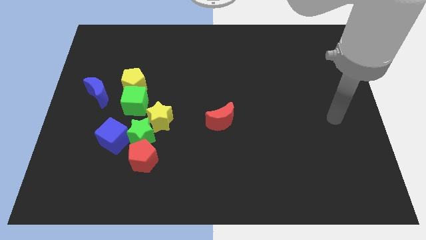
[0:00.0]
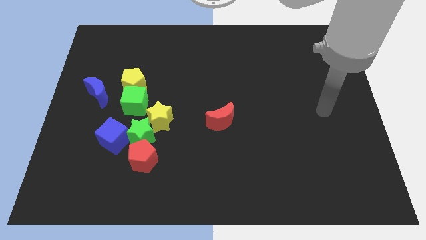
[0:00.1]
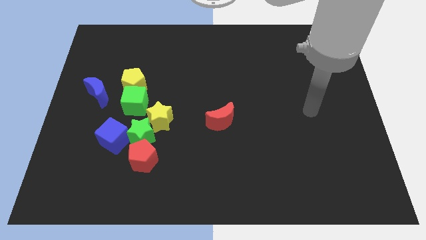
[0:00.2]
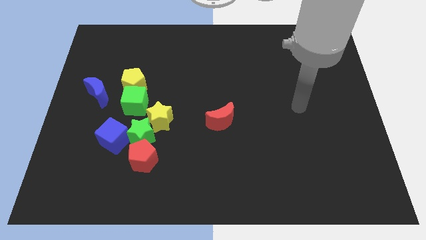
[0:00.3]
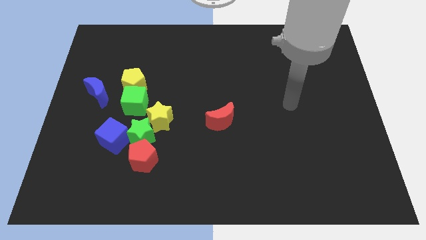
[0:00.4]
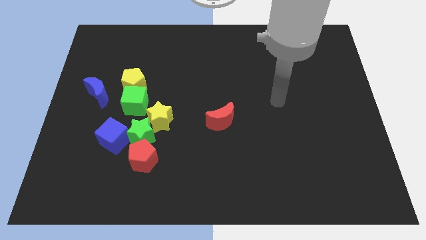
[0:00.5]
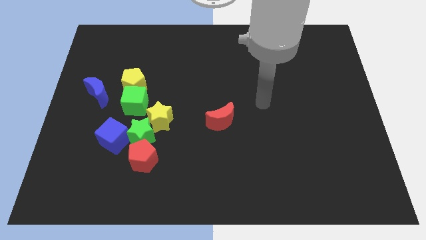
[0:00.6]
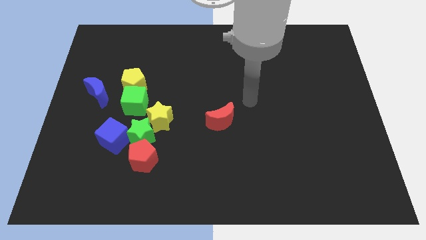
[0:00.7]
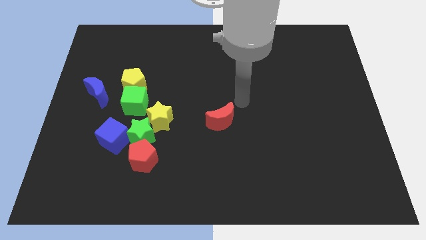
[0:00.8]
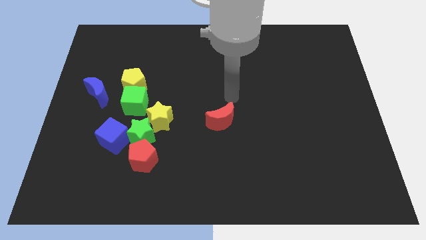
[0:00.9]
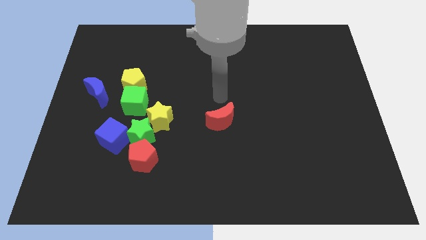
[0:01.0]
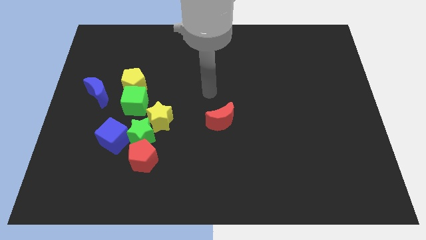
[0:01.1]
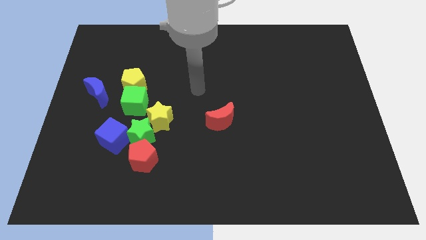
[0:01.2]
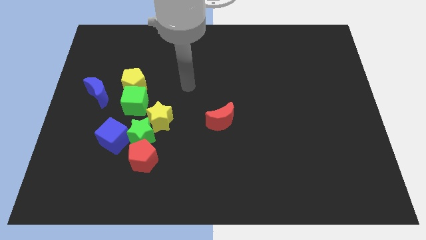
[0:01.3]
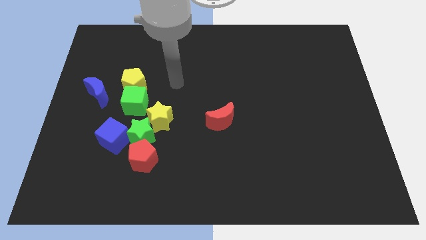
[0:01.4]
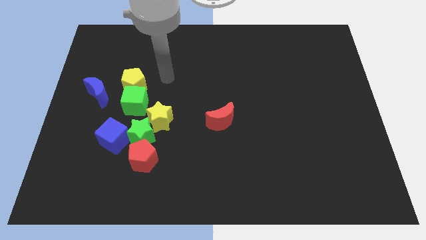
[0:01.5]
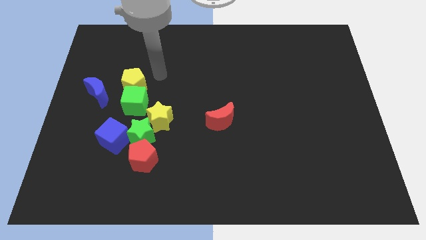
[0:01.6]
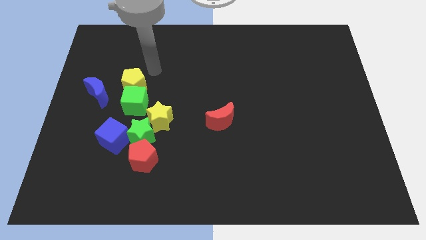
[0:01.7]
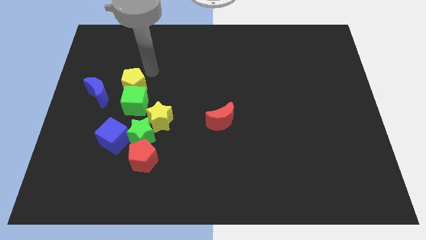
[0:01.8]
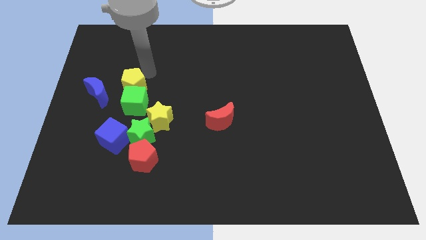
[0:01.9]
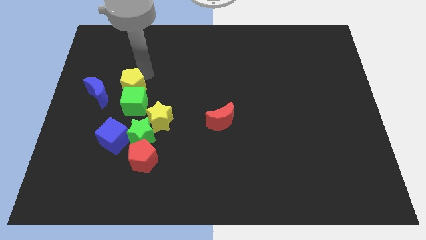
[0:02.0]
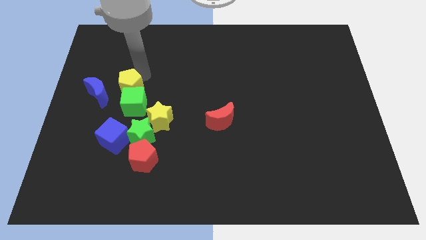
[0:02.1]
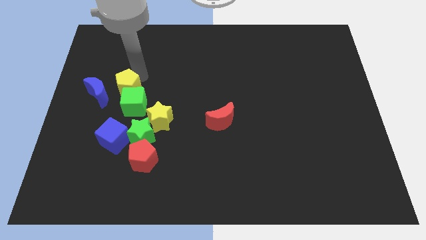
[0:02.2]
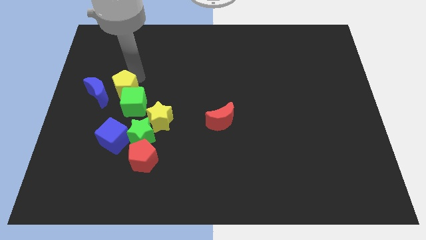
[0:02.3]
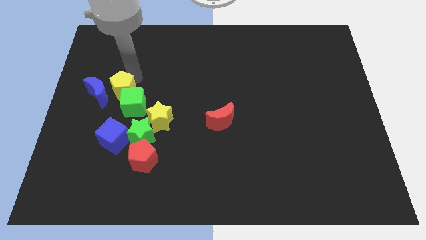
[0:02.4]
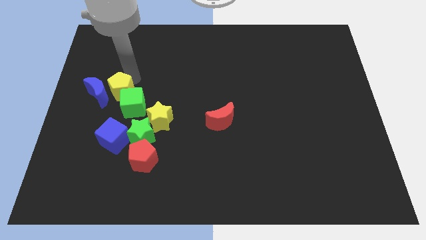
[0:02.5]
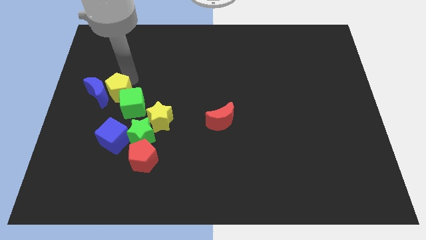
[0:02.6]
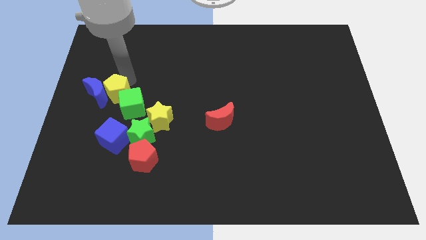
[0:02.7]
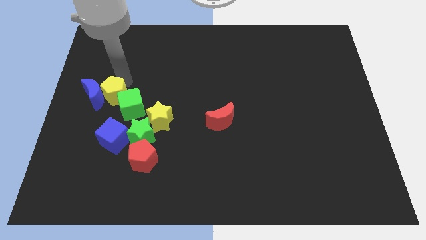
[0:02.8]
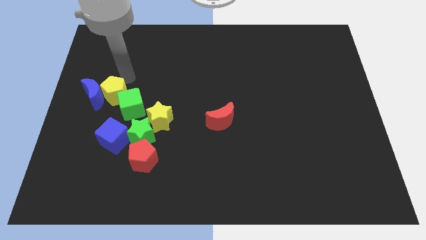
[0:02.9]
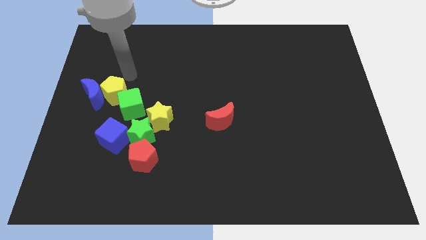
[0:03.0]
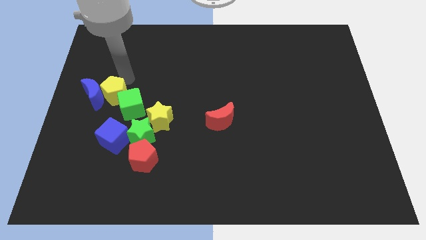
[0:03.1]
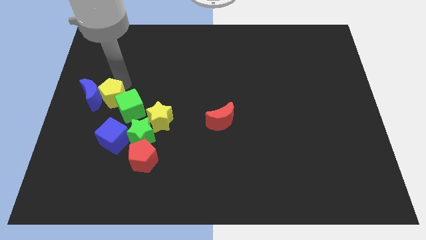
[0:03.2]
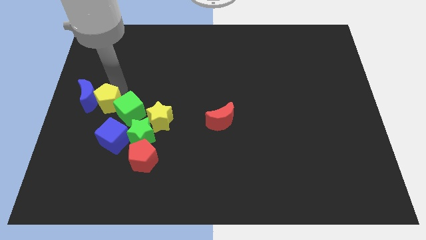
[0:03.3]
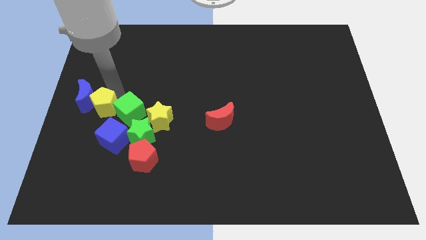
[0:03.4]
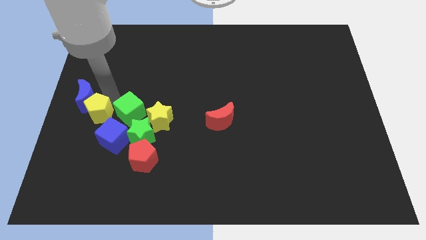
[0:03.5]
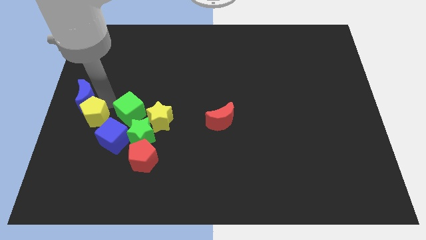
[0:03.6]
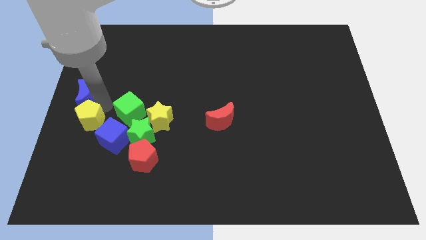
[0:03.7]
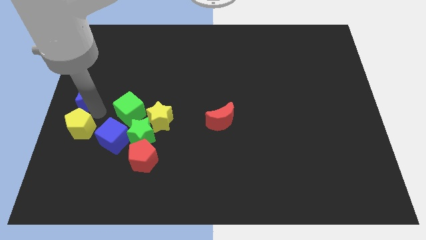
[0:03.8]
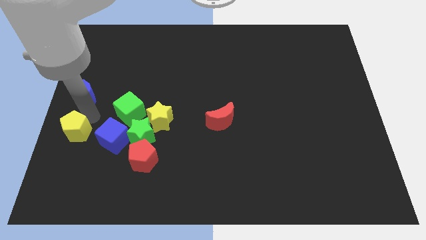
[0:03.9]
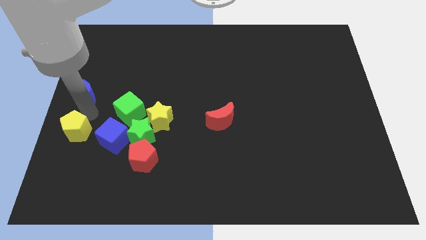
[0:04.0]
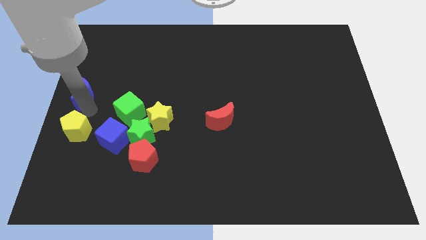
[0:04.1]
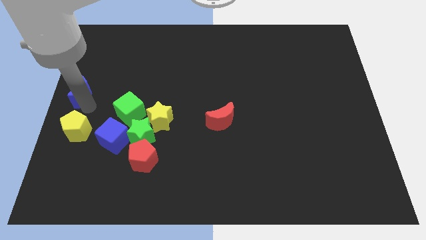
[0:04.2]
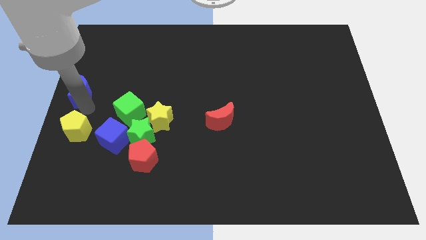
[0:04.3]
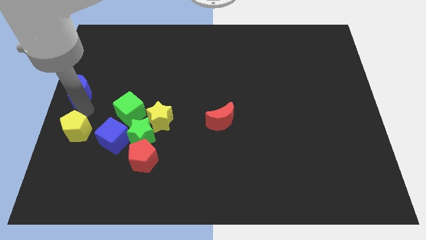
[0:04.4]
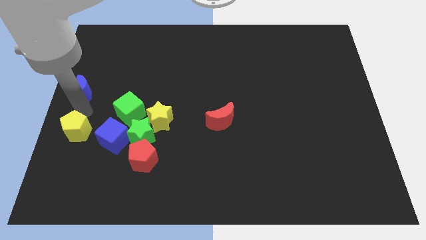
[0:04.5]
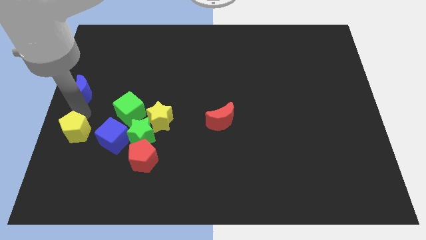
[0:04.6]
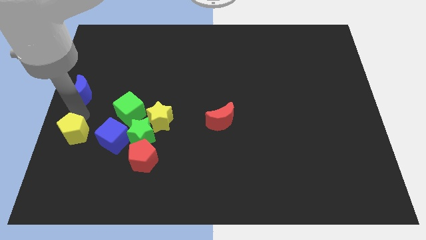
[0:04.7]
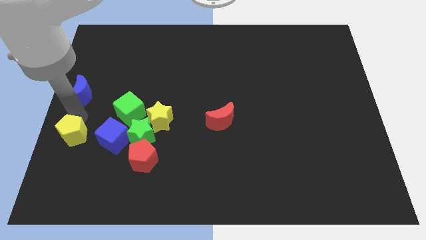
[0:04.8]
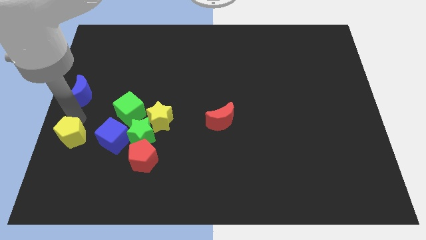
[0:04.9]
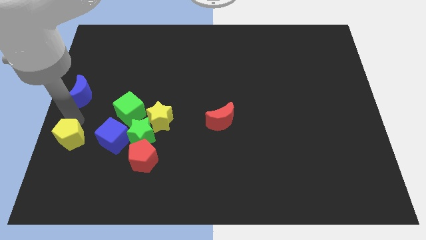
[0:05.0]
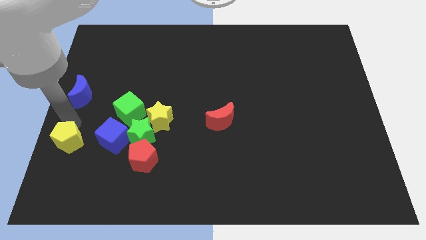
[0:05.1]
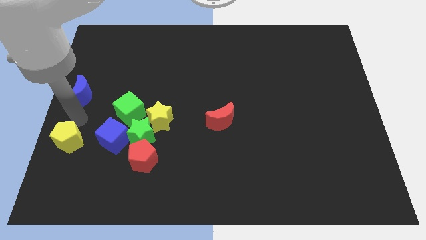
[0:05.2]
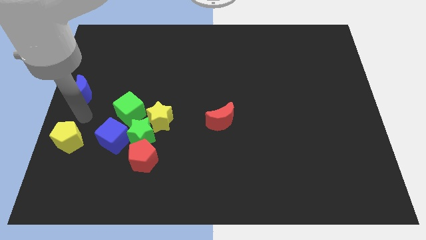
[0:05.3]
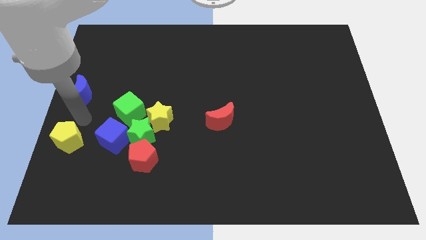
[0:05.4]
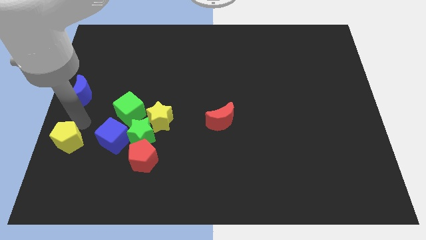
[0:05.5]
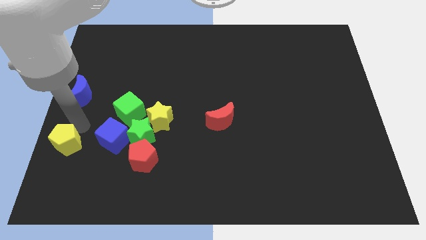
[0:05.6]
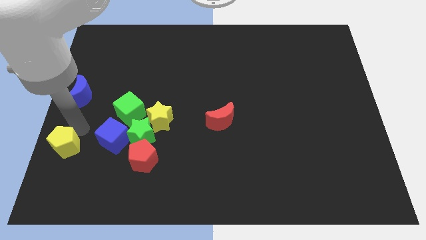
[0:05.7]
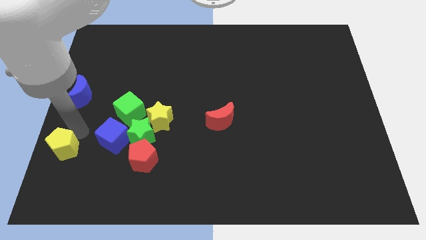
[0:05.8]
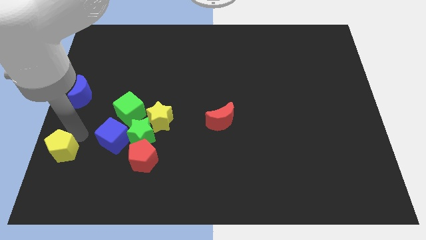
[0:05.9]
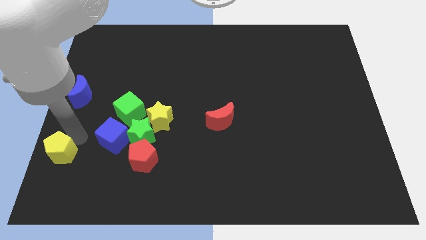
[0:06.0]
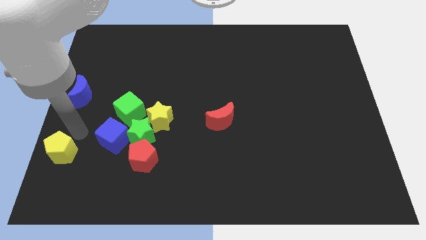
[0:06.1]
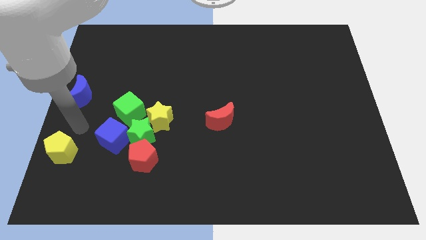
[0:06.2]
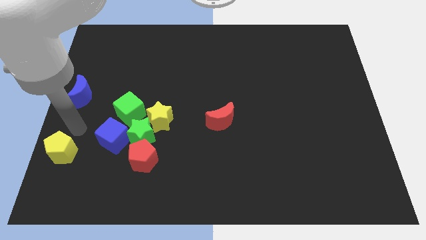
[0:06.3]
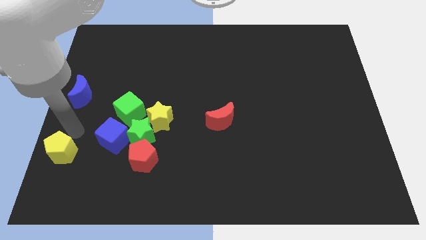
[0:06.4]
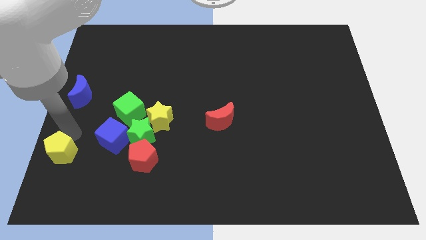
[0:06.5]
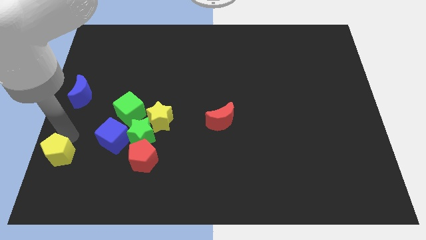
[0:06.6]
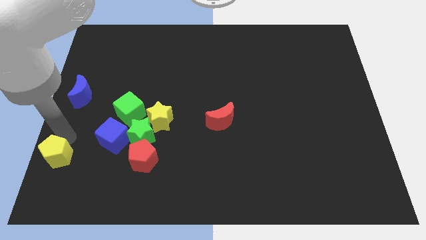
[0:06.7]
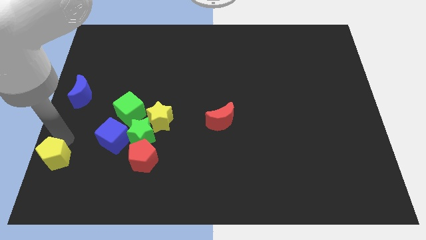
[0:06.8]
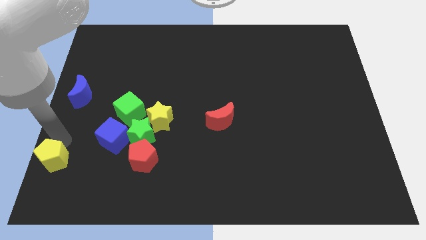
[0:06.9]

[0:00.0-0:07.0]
move the yellow pentagon to the lower left corner
